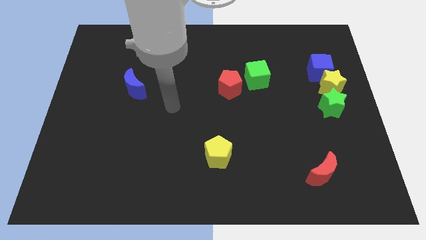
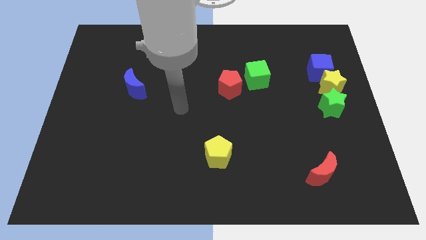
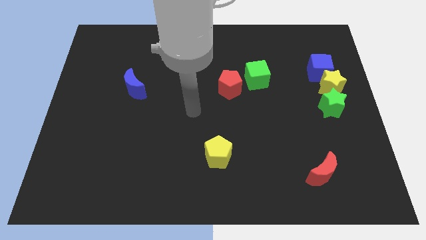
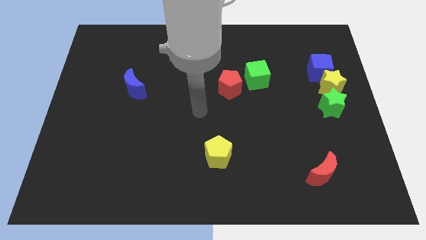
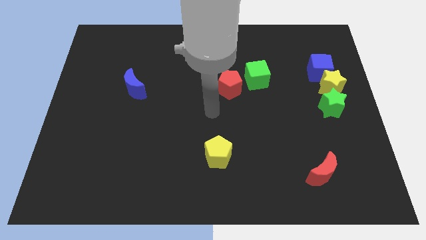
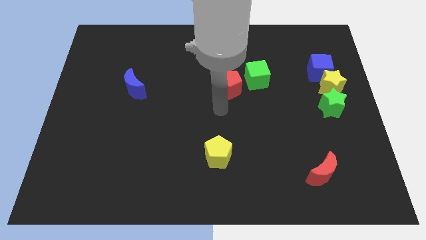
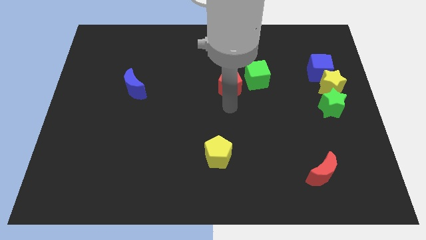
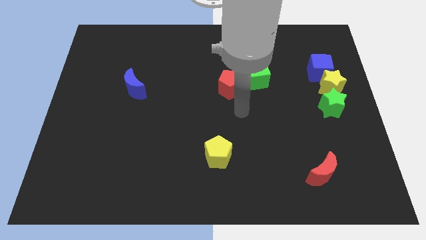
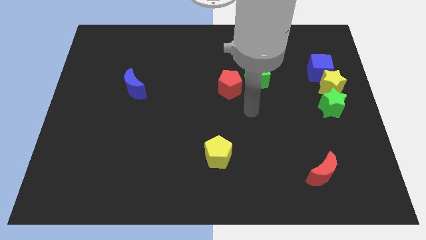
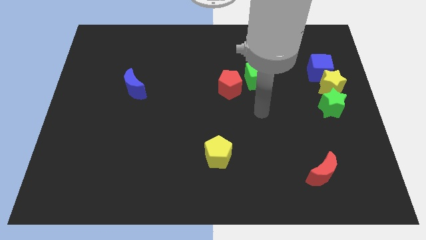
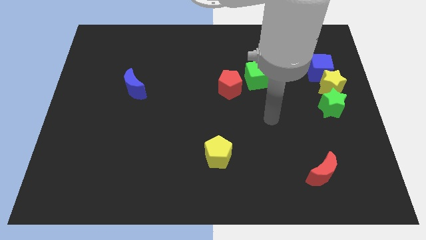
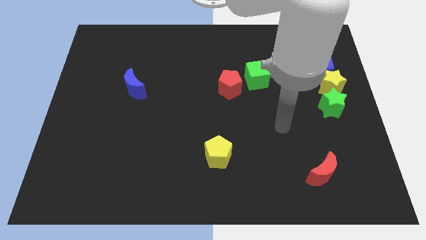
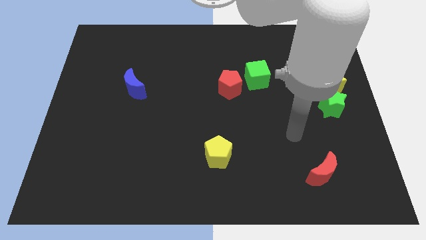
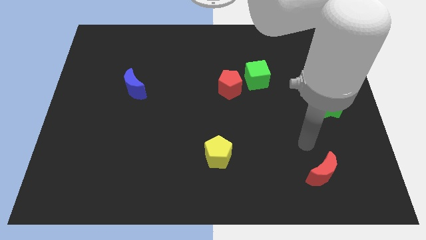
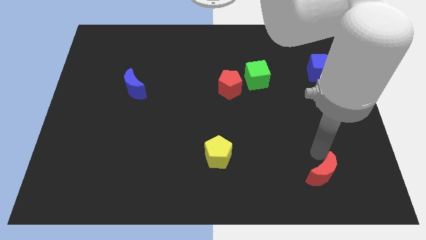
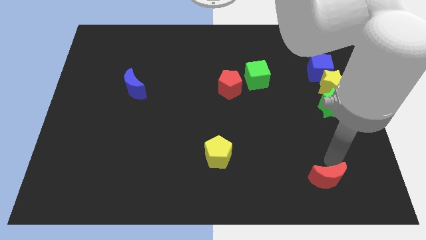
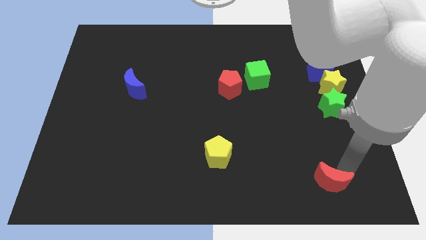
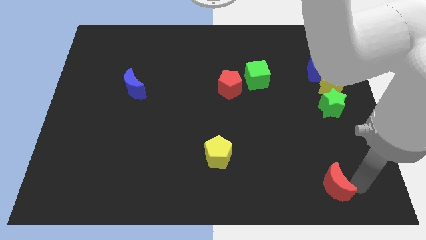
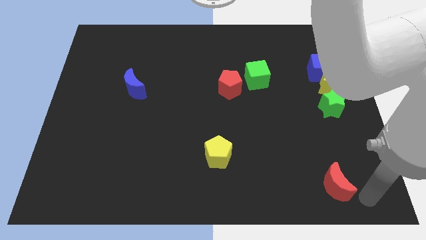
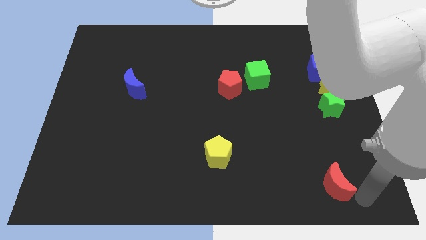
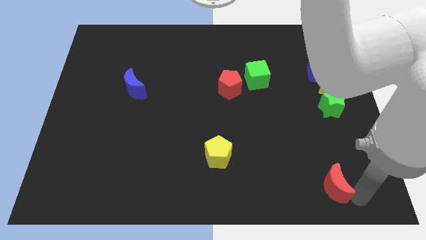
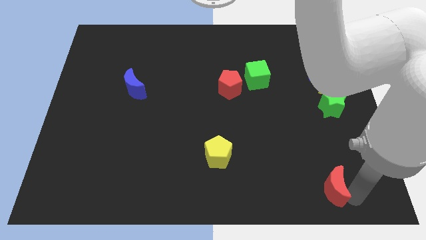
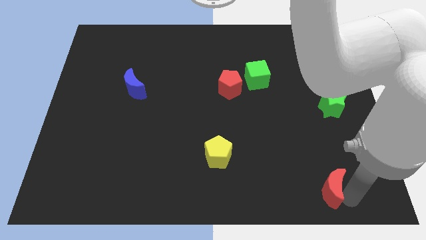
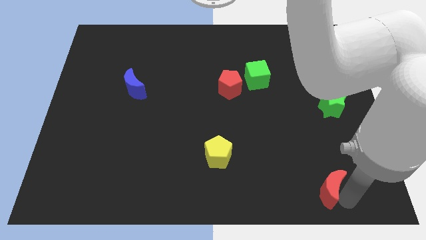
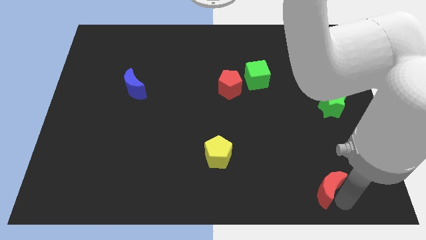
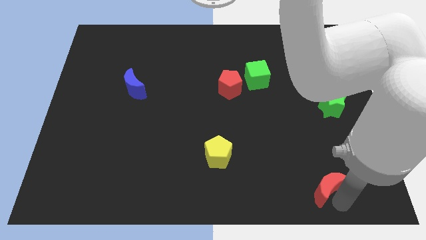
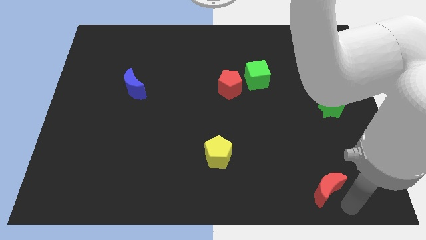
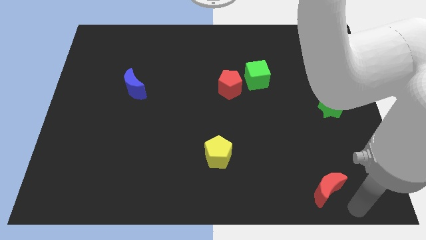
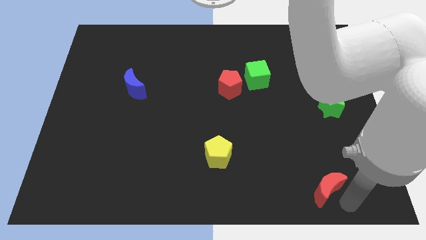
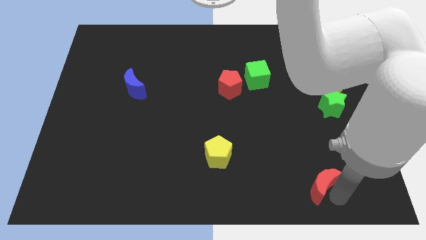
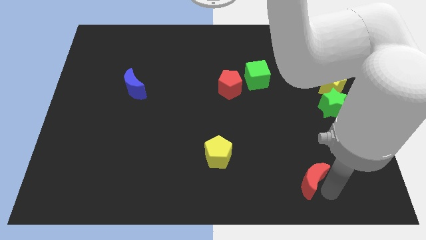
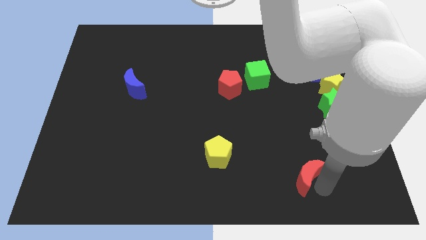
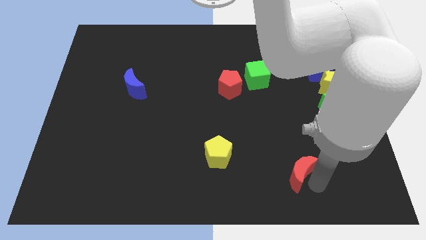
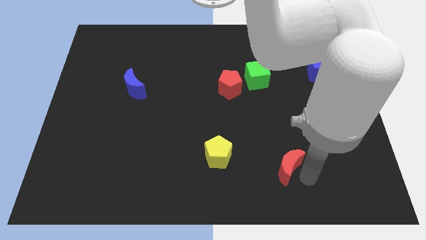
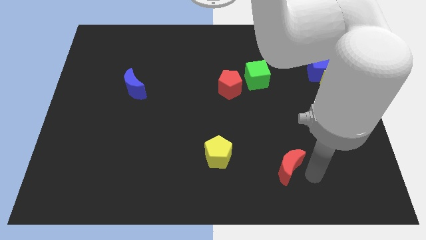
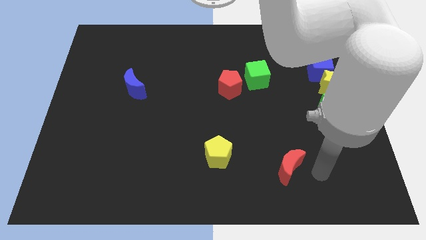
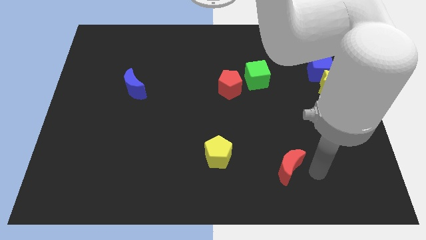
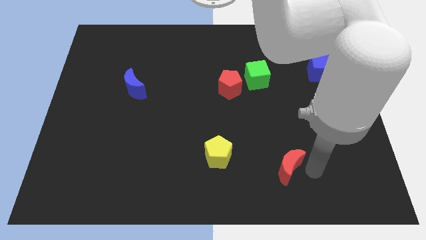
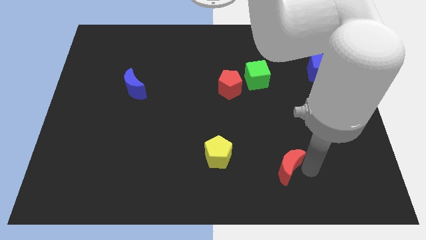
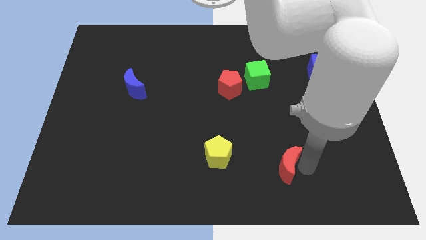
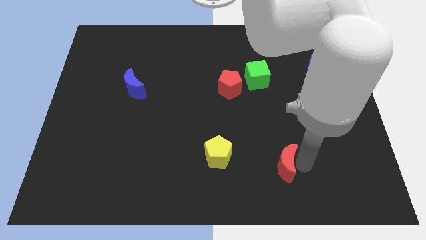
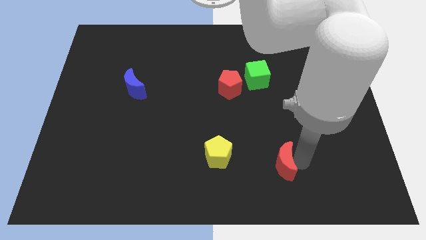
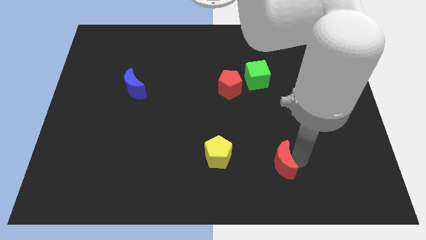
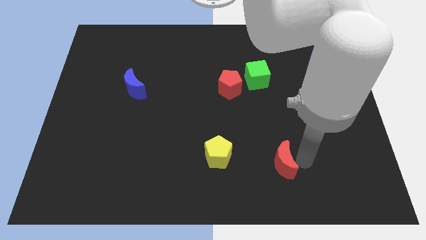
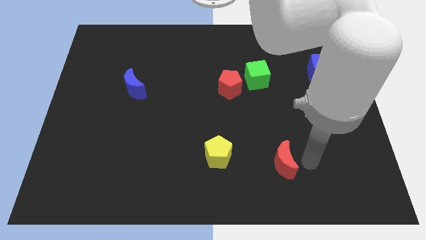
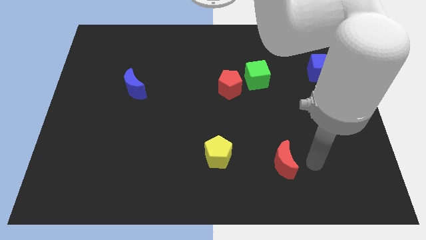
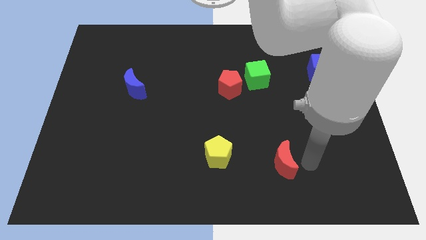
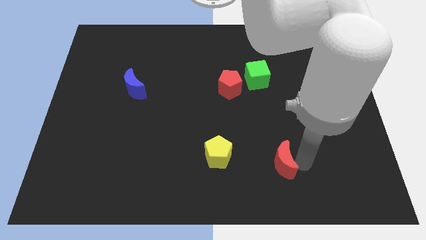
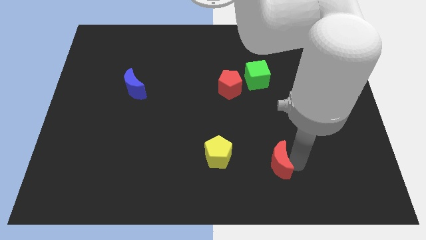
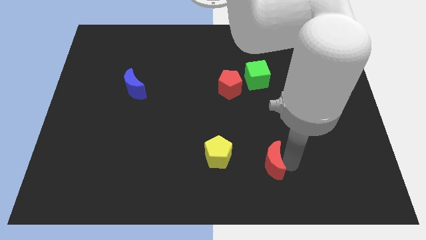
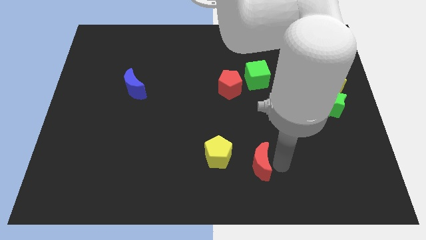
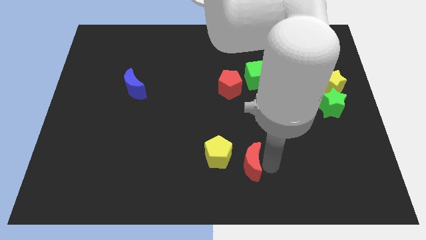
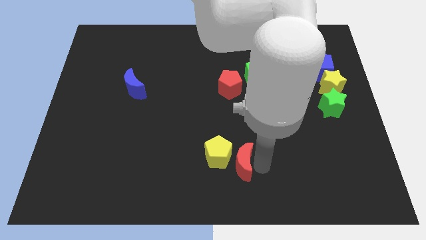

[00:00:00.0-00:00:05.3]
slide the red moon next to the yellow pentagon

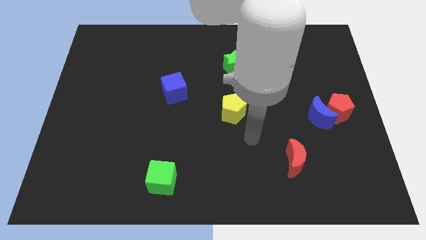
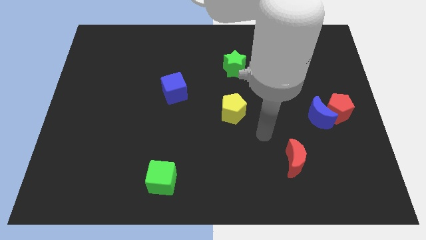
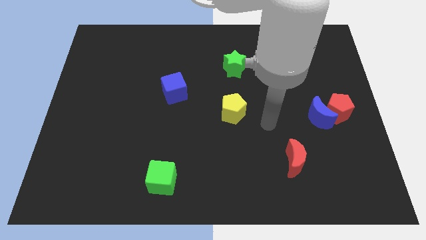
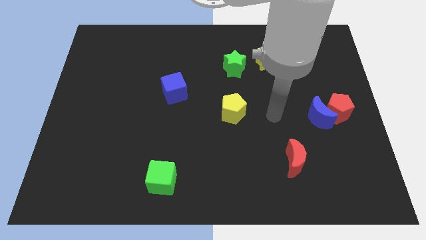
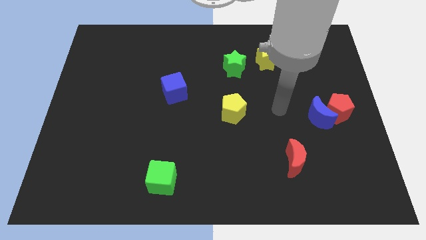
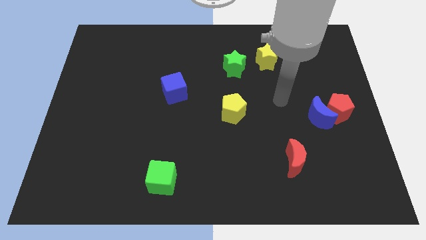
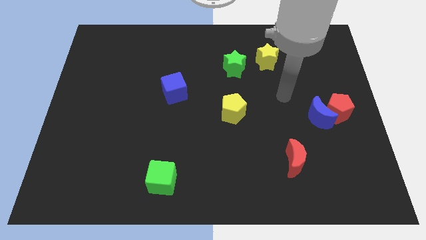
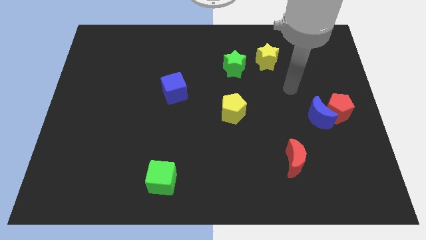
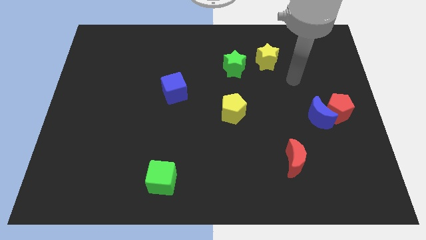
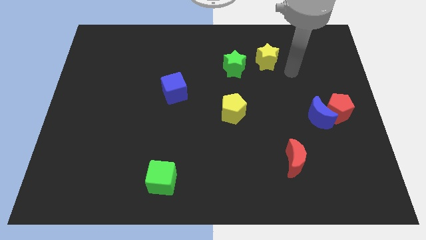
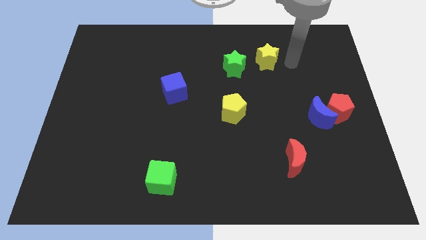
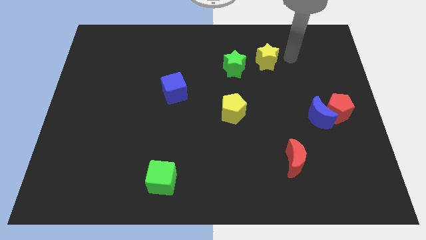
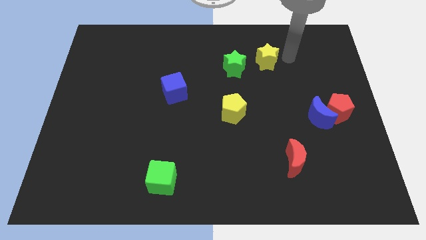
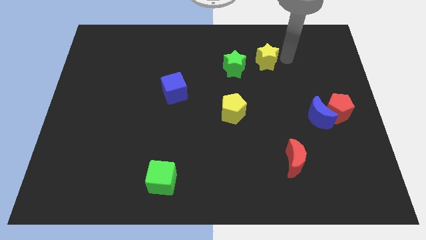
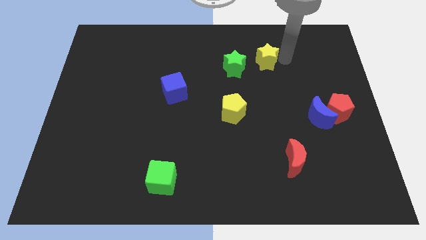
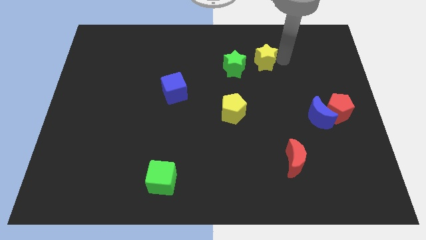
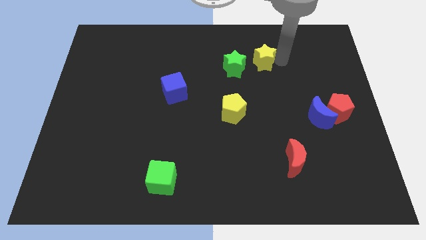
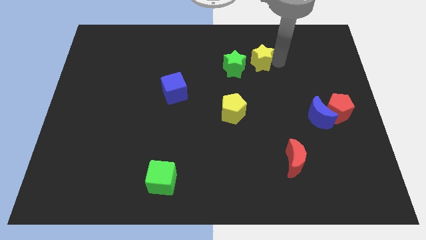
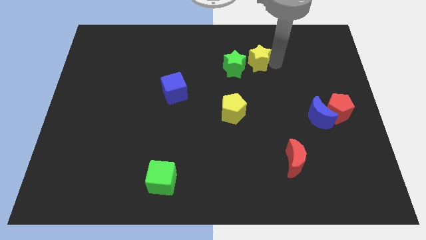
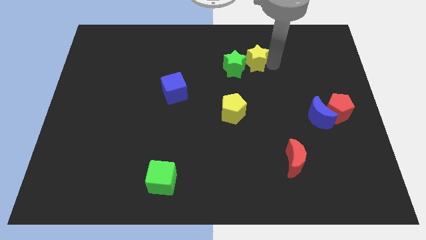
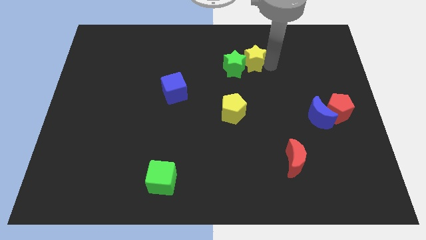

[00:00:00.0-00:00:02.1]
put the yellow star next to the green star
